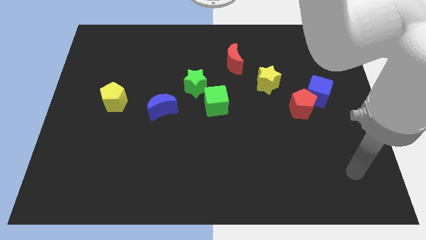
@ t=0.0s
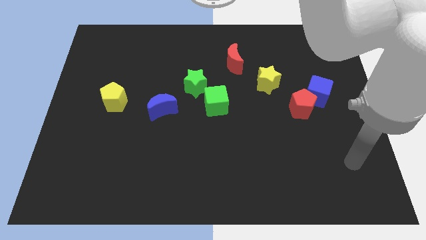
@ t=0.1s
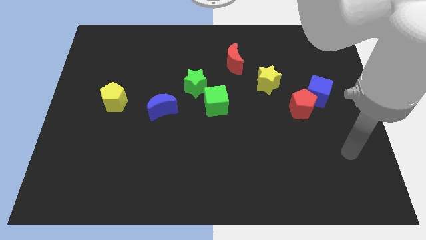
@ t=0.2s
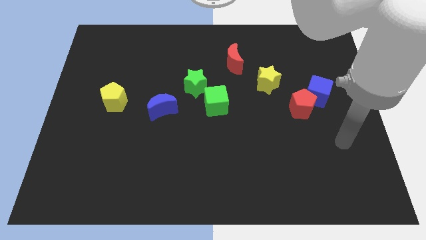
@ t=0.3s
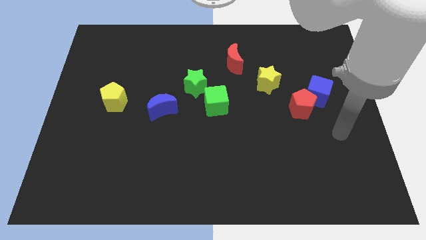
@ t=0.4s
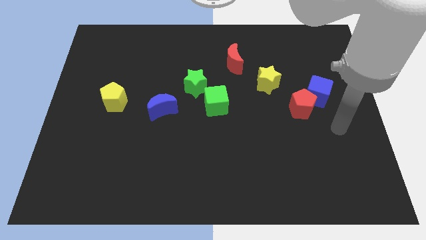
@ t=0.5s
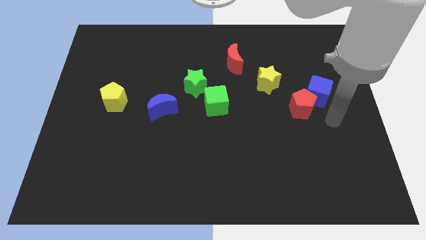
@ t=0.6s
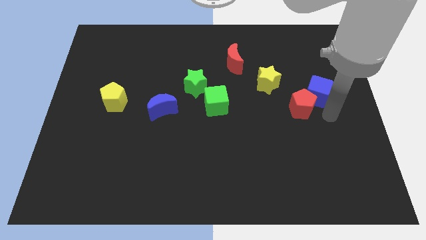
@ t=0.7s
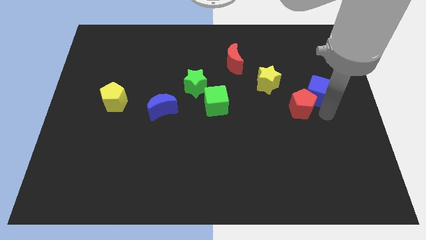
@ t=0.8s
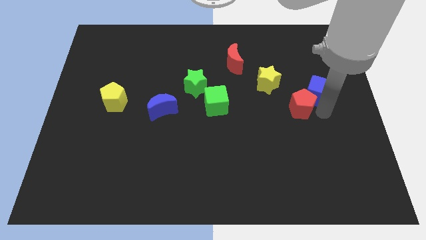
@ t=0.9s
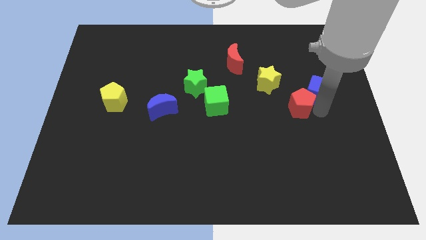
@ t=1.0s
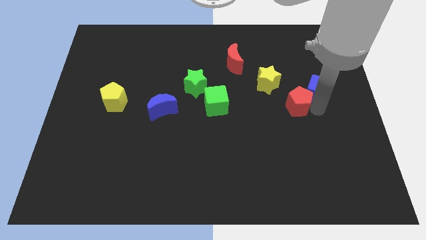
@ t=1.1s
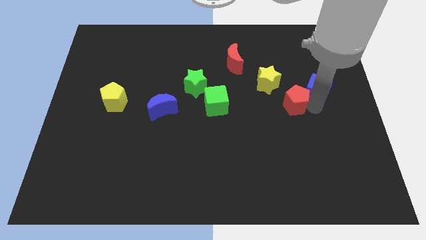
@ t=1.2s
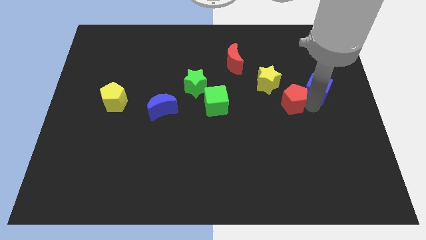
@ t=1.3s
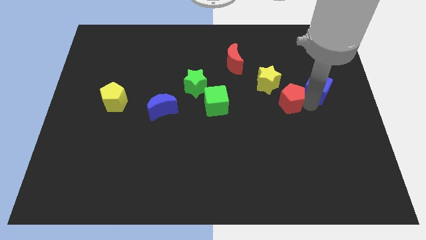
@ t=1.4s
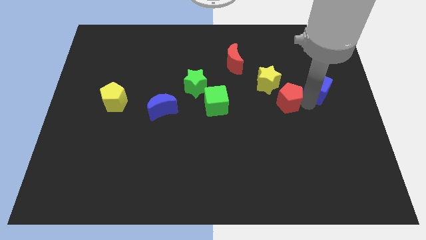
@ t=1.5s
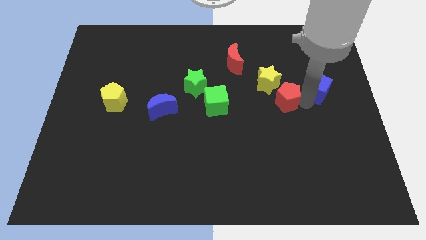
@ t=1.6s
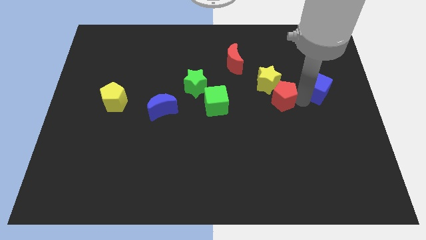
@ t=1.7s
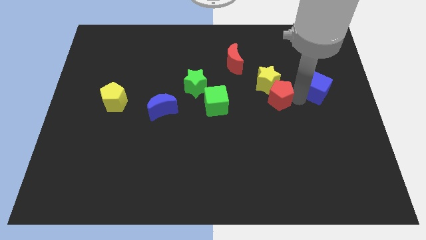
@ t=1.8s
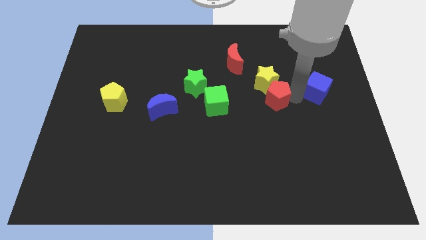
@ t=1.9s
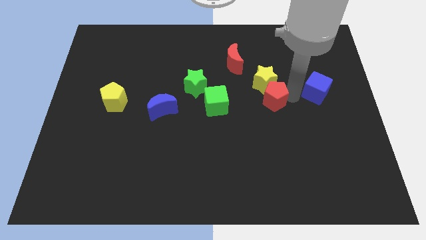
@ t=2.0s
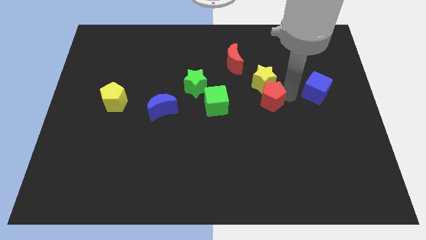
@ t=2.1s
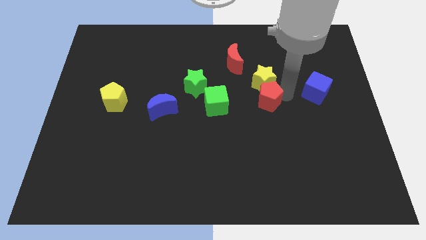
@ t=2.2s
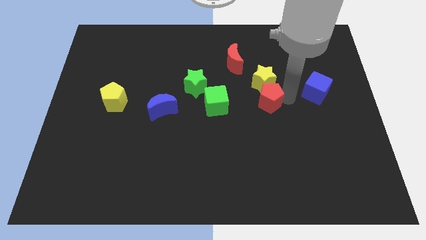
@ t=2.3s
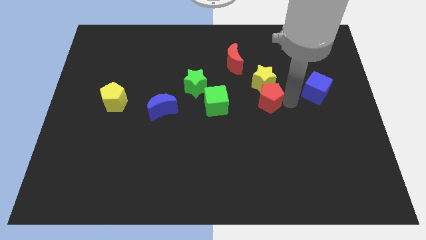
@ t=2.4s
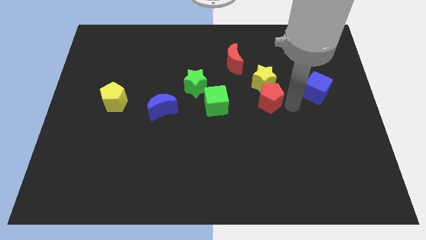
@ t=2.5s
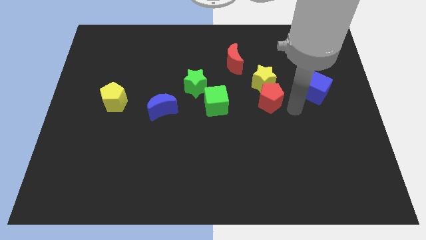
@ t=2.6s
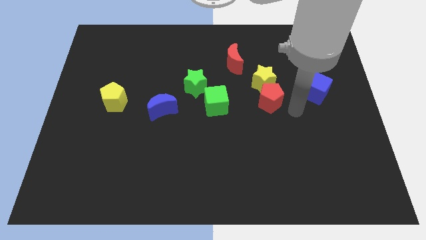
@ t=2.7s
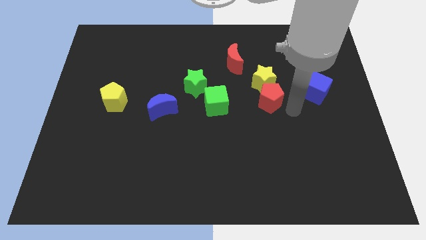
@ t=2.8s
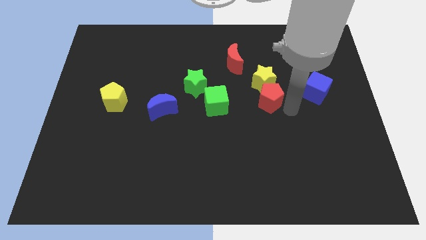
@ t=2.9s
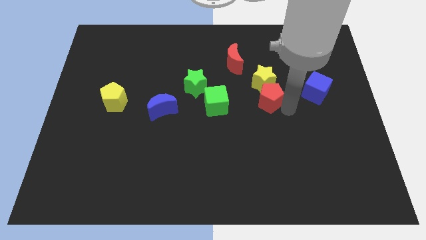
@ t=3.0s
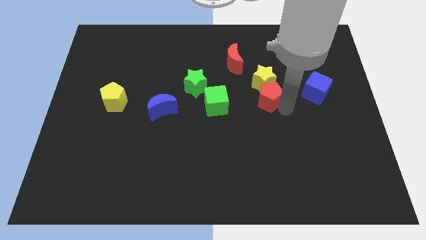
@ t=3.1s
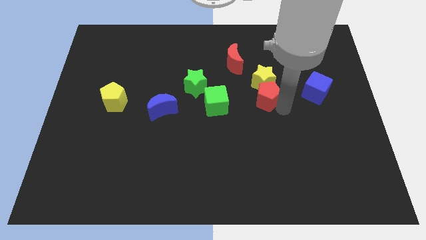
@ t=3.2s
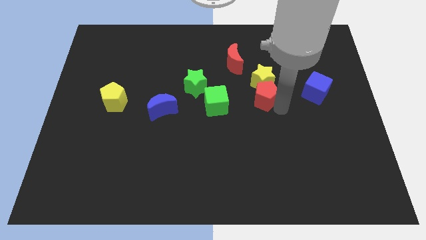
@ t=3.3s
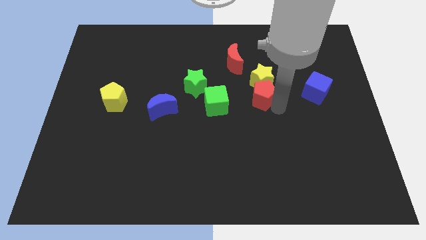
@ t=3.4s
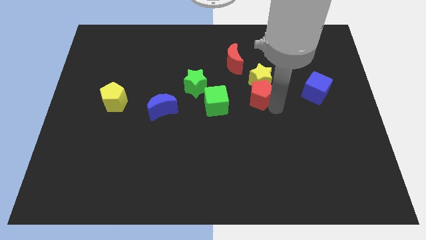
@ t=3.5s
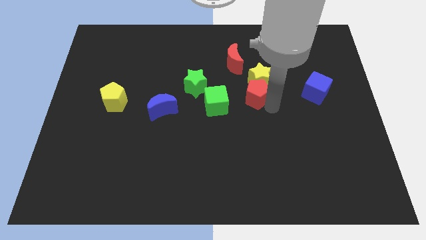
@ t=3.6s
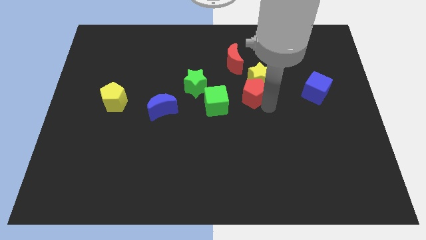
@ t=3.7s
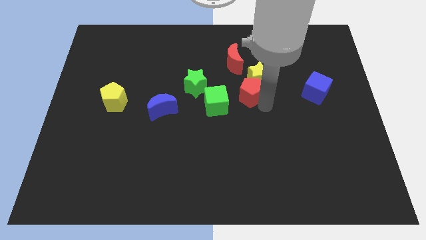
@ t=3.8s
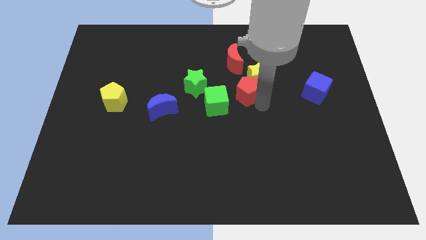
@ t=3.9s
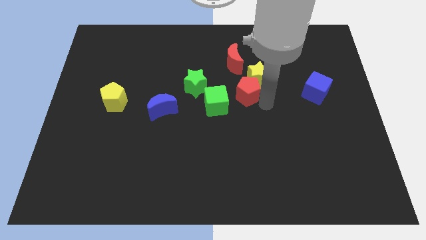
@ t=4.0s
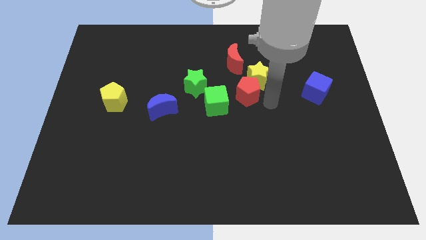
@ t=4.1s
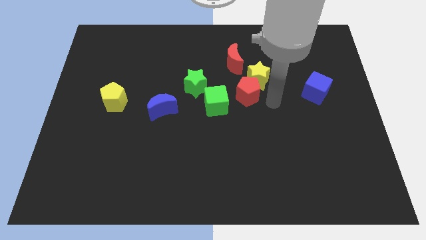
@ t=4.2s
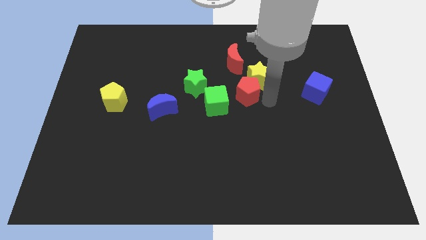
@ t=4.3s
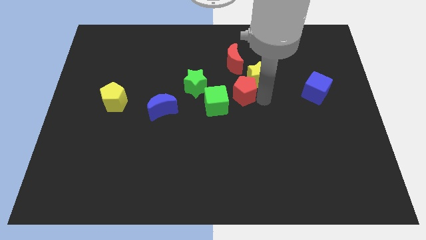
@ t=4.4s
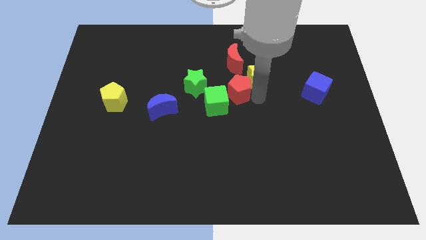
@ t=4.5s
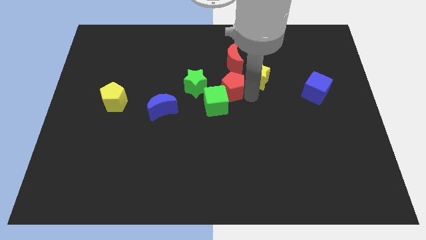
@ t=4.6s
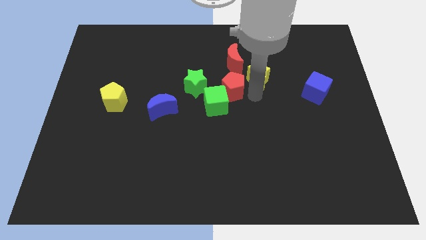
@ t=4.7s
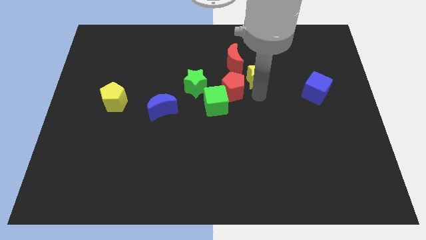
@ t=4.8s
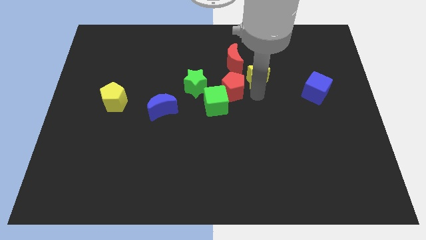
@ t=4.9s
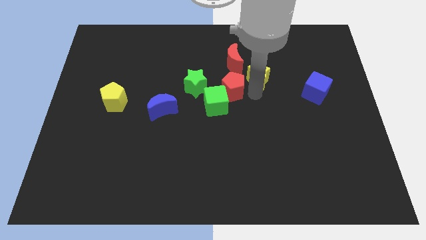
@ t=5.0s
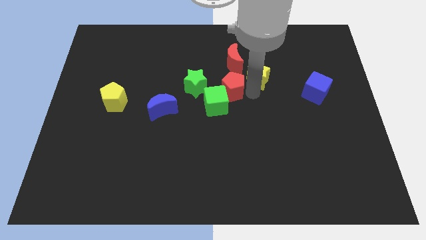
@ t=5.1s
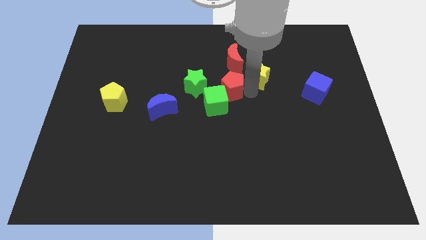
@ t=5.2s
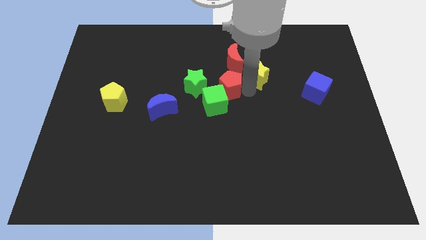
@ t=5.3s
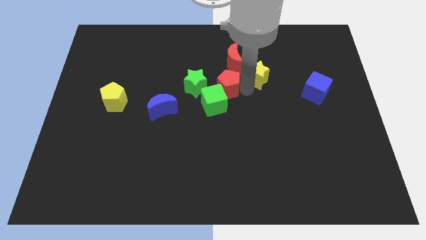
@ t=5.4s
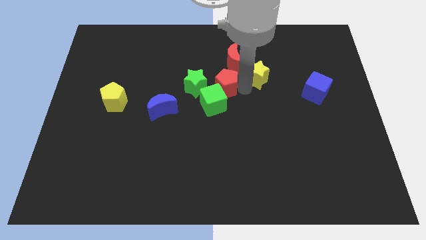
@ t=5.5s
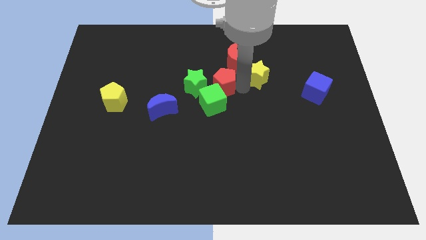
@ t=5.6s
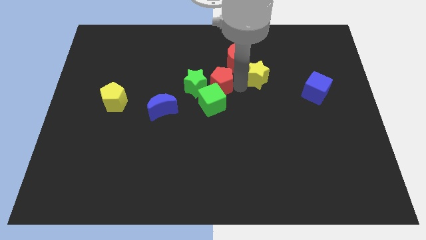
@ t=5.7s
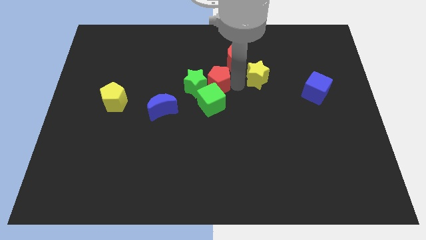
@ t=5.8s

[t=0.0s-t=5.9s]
move the red pentagon close to the green star

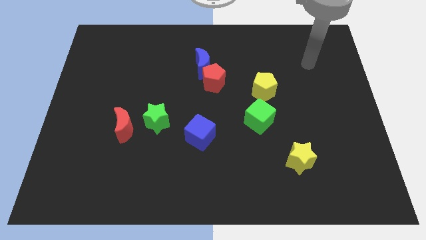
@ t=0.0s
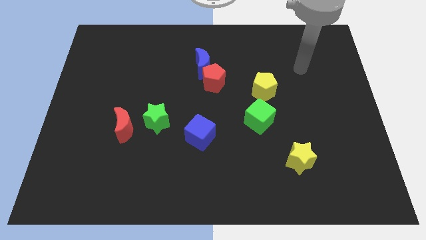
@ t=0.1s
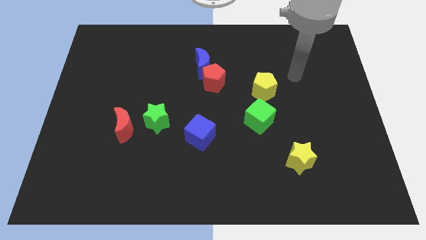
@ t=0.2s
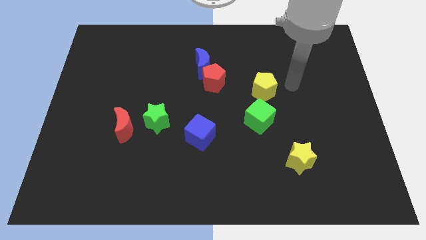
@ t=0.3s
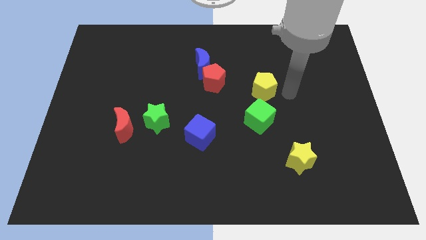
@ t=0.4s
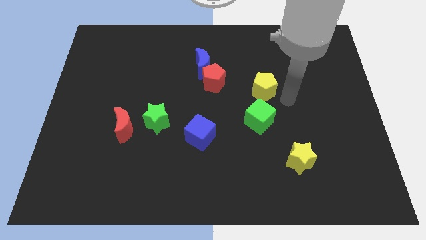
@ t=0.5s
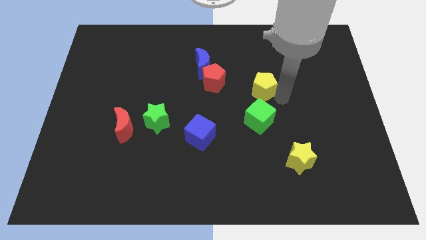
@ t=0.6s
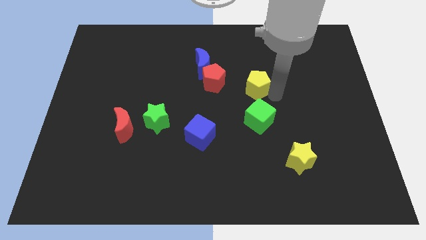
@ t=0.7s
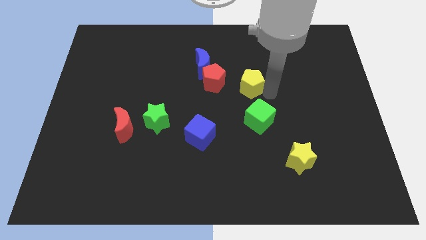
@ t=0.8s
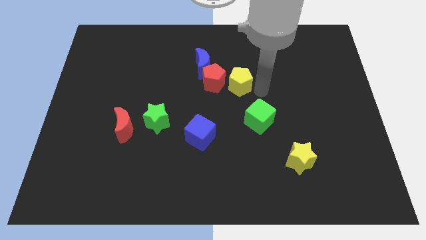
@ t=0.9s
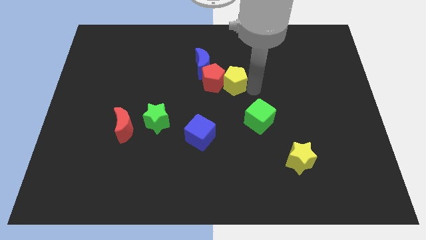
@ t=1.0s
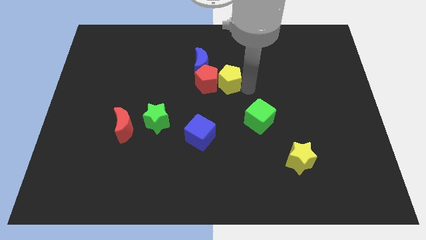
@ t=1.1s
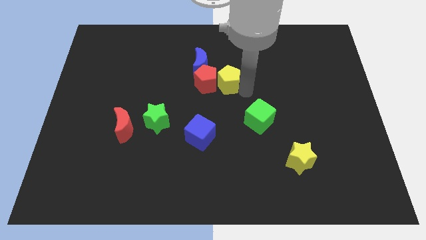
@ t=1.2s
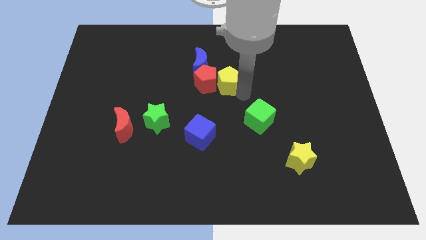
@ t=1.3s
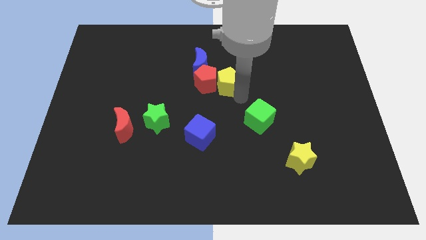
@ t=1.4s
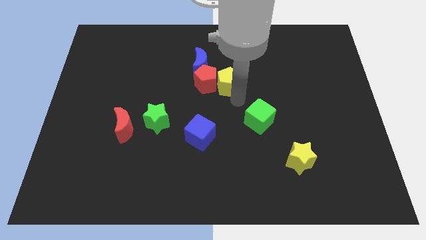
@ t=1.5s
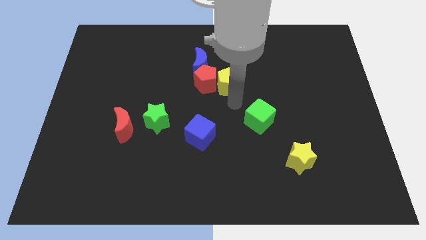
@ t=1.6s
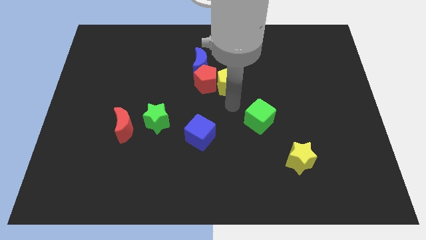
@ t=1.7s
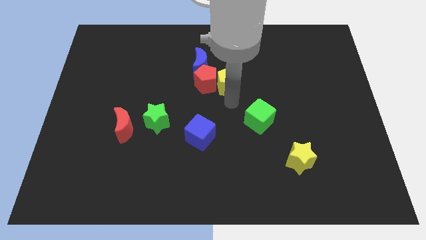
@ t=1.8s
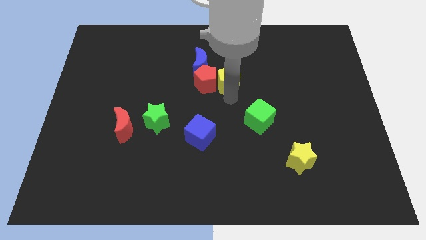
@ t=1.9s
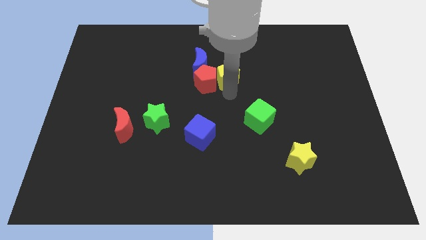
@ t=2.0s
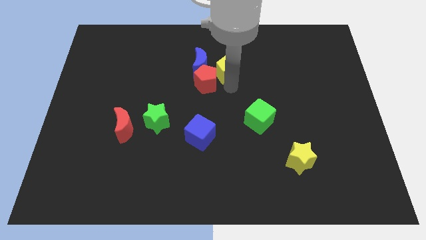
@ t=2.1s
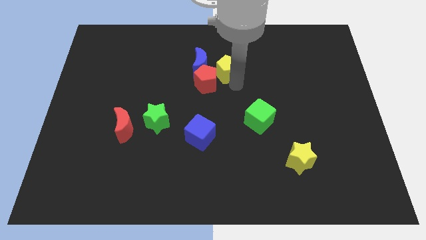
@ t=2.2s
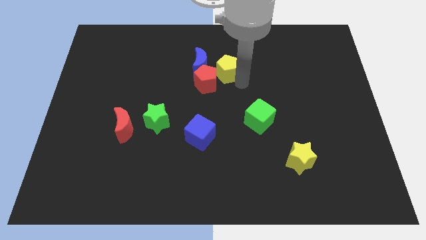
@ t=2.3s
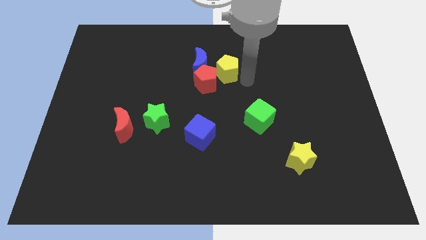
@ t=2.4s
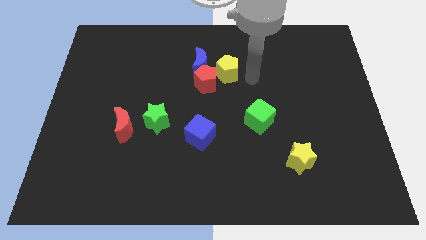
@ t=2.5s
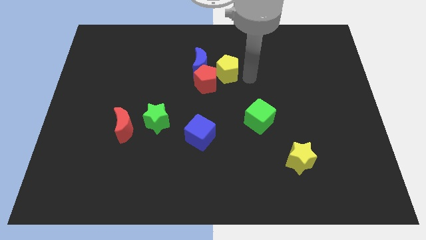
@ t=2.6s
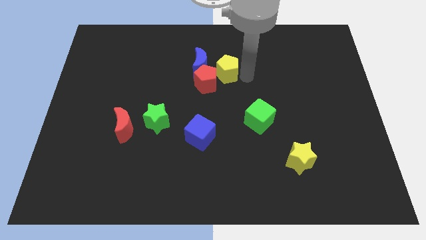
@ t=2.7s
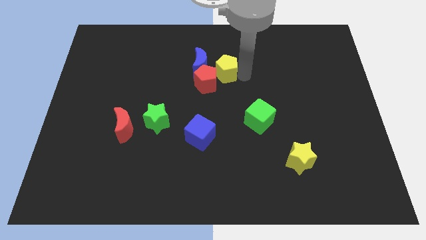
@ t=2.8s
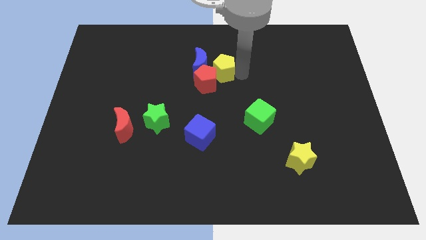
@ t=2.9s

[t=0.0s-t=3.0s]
move the yellow pentagon close to the blue moon
